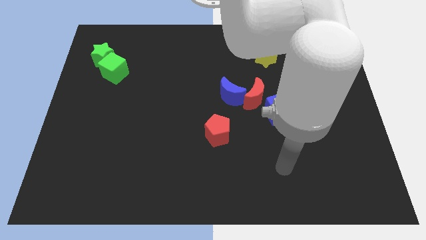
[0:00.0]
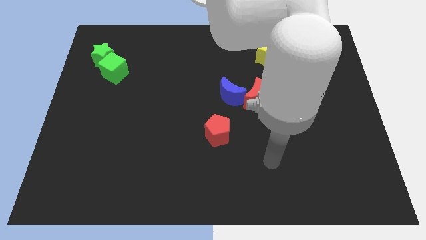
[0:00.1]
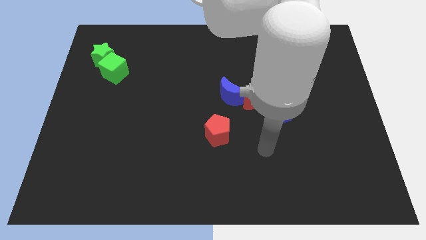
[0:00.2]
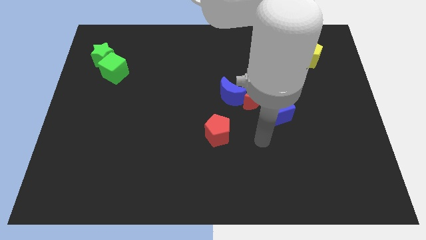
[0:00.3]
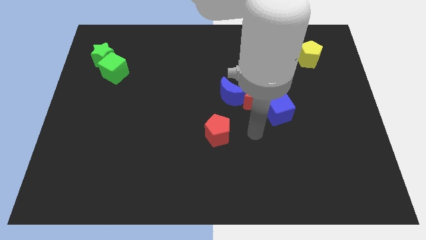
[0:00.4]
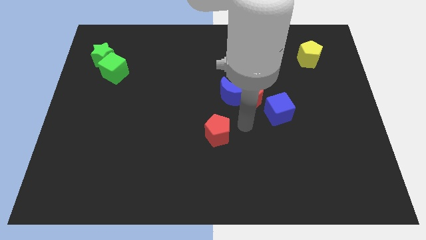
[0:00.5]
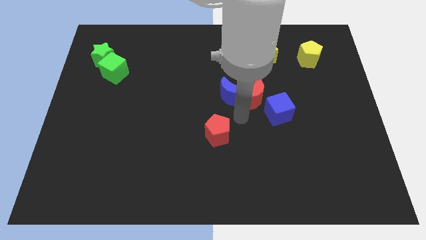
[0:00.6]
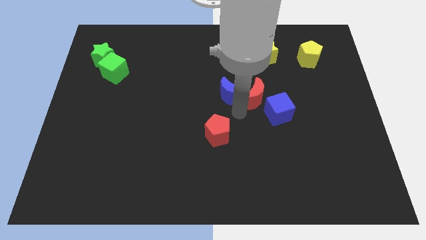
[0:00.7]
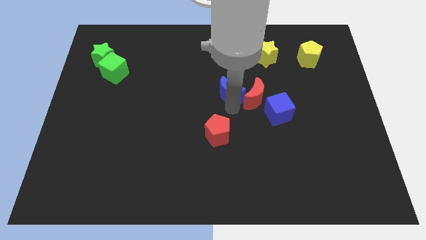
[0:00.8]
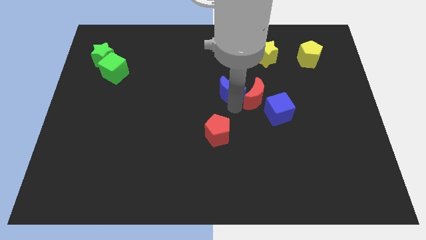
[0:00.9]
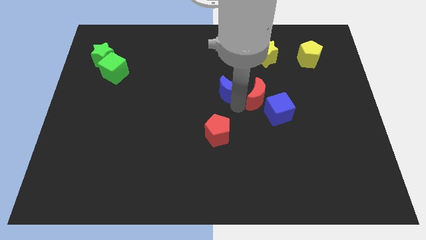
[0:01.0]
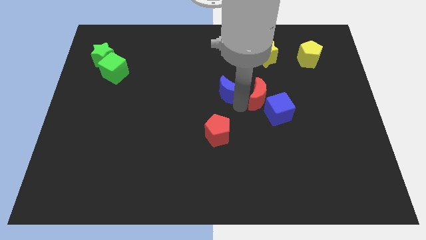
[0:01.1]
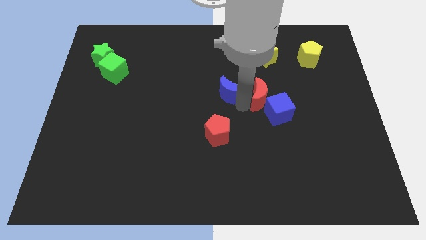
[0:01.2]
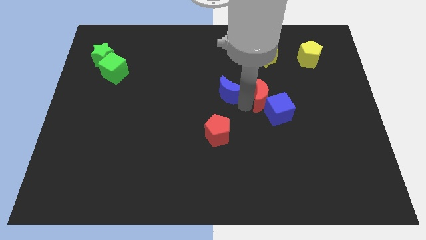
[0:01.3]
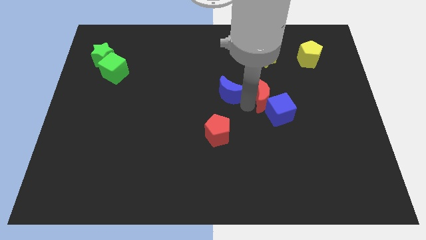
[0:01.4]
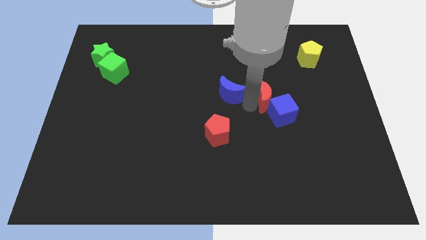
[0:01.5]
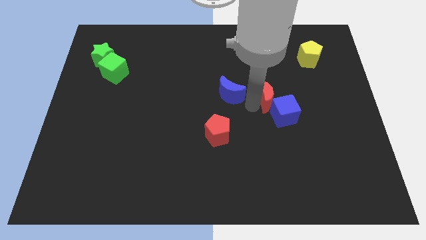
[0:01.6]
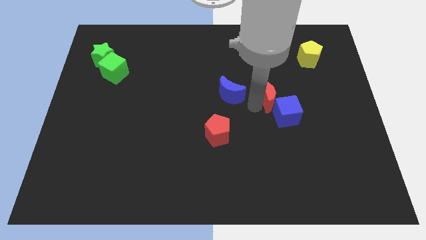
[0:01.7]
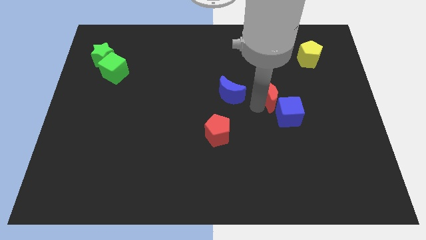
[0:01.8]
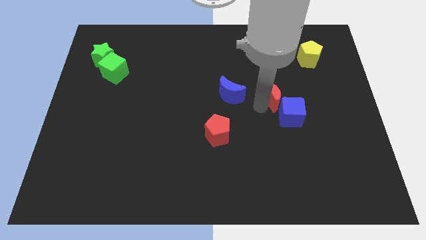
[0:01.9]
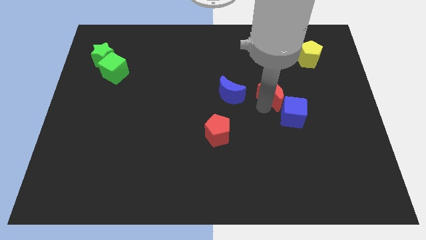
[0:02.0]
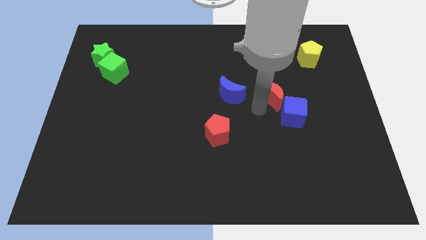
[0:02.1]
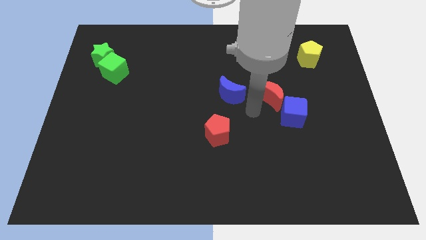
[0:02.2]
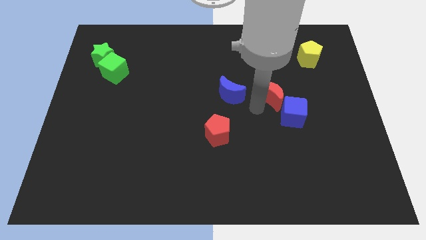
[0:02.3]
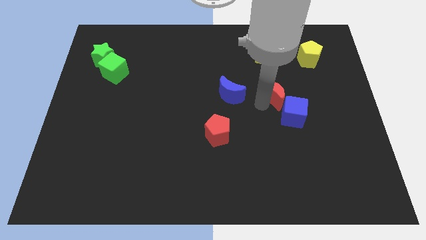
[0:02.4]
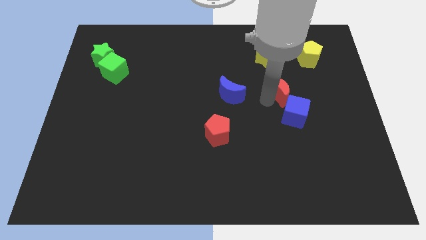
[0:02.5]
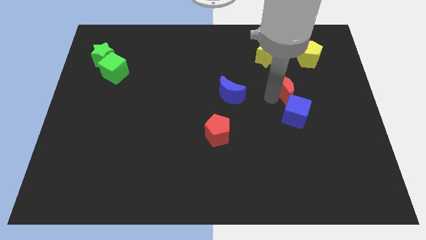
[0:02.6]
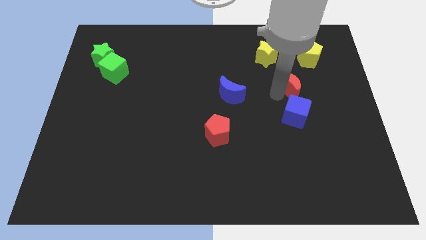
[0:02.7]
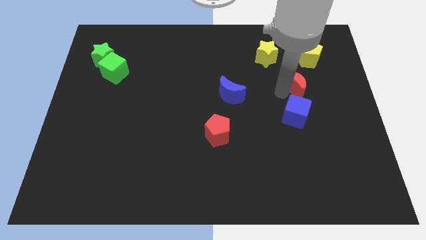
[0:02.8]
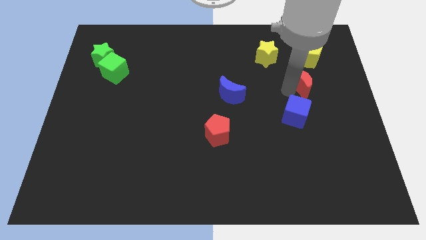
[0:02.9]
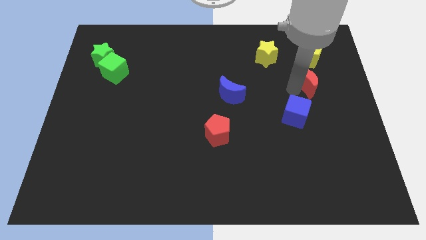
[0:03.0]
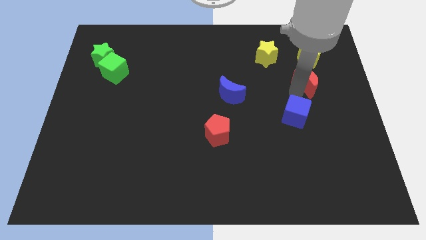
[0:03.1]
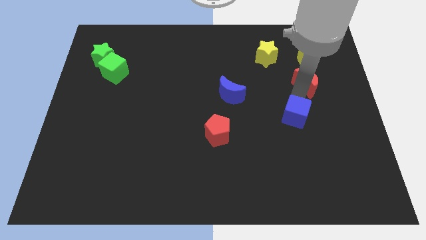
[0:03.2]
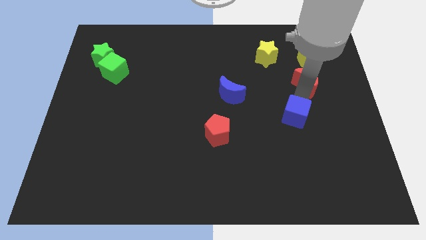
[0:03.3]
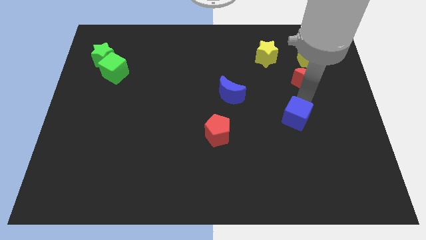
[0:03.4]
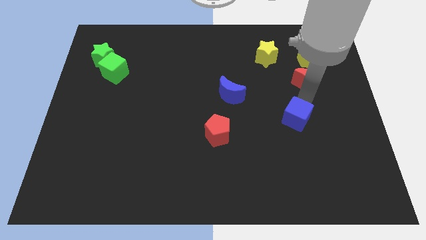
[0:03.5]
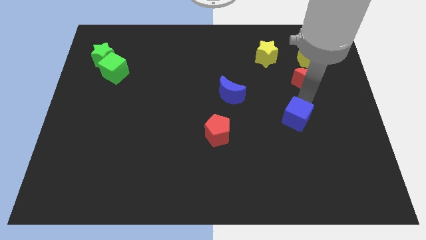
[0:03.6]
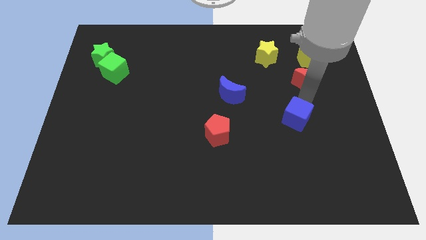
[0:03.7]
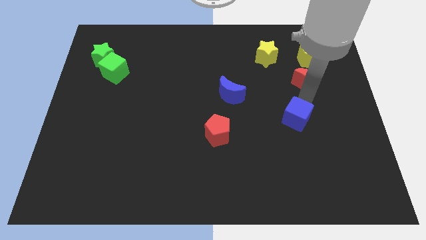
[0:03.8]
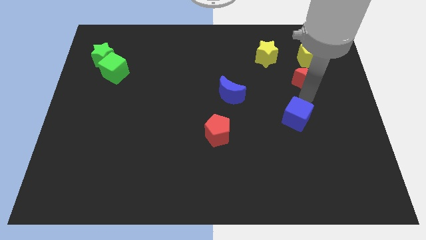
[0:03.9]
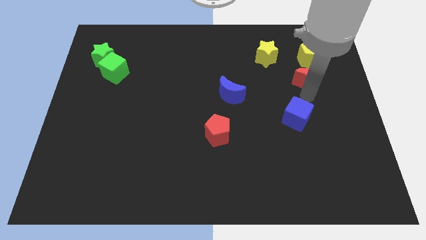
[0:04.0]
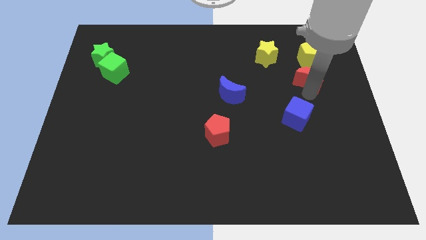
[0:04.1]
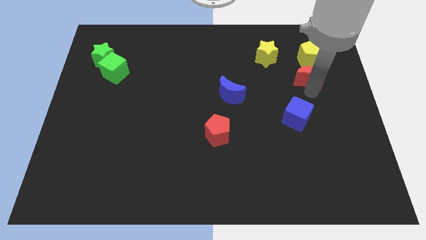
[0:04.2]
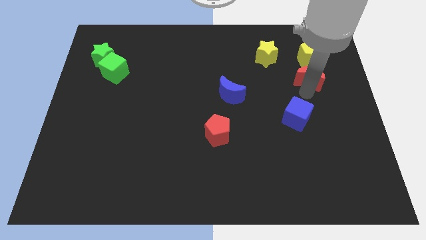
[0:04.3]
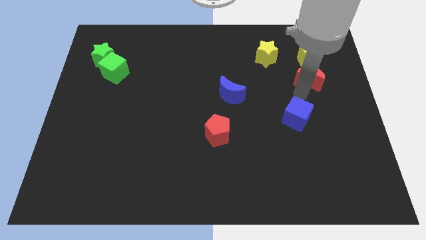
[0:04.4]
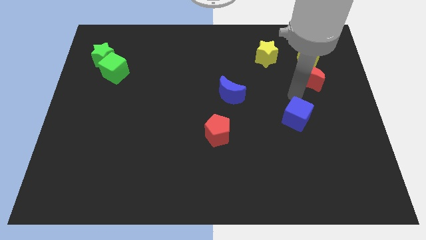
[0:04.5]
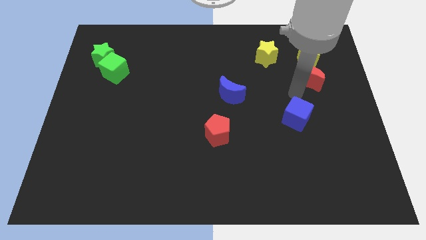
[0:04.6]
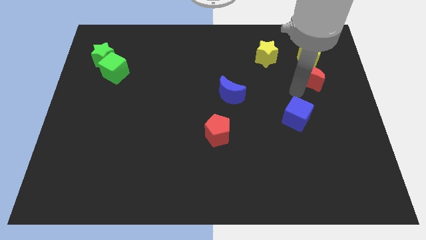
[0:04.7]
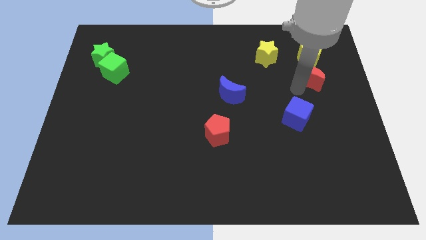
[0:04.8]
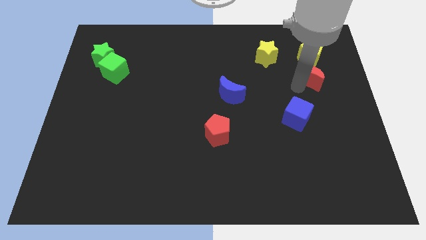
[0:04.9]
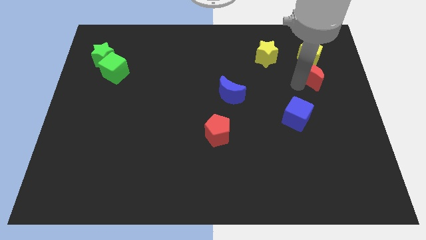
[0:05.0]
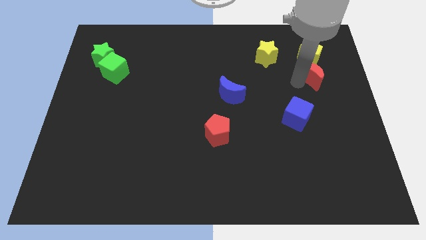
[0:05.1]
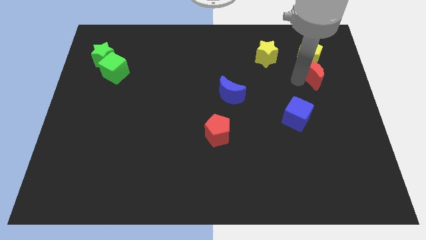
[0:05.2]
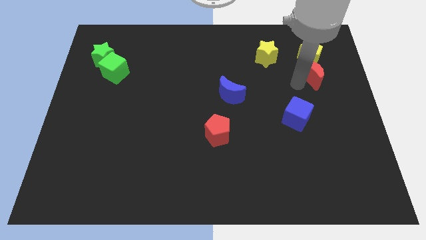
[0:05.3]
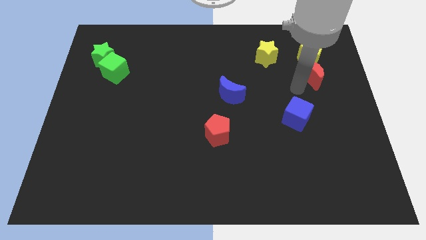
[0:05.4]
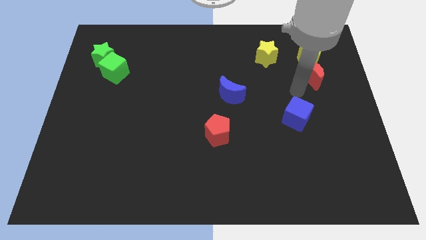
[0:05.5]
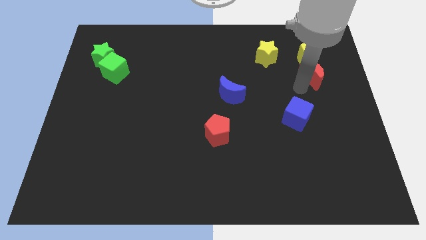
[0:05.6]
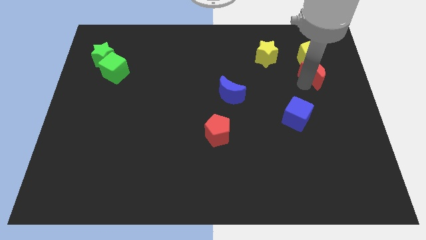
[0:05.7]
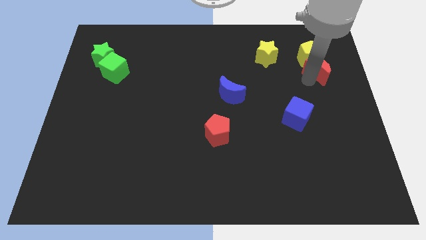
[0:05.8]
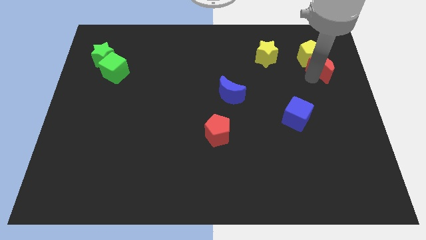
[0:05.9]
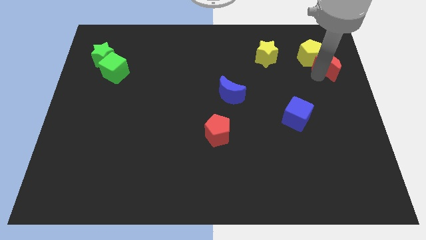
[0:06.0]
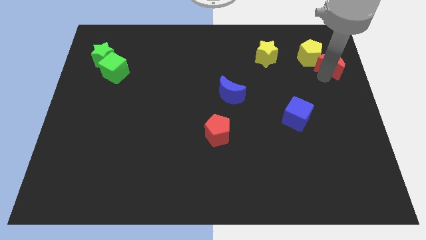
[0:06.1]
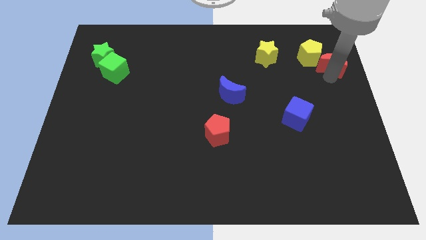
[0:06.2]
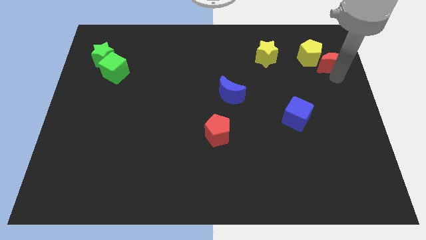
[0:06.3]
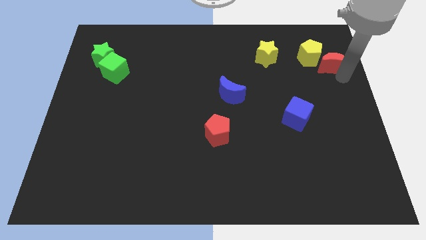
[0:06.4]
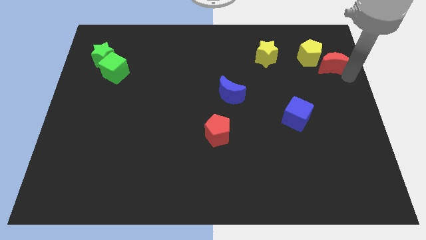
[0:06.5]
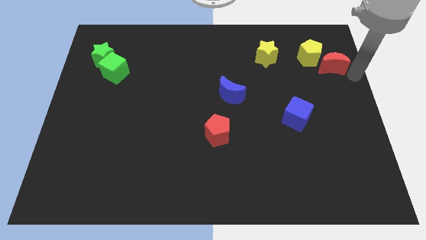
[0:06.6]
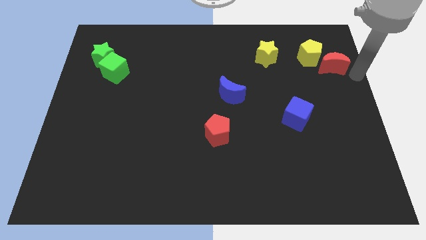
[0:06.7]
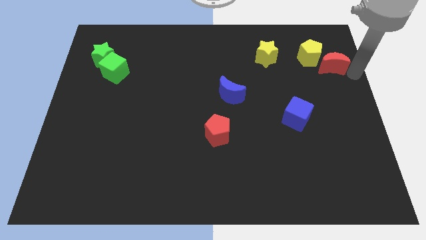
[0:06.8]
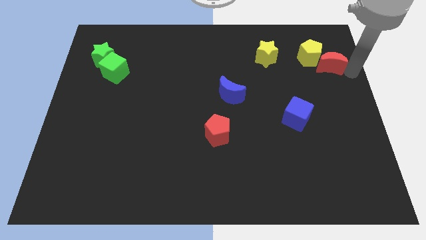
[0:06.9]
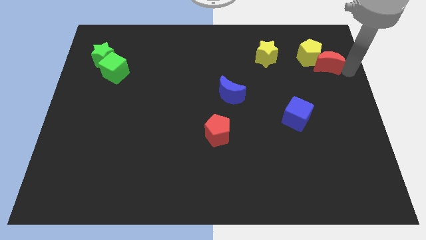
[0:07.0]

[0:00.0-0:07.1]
slide the red moon just right of the yellow star
